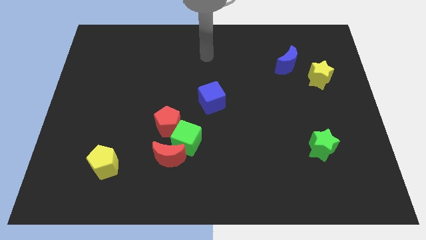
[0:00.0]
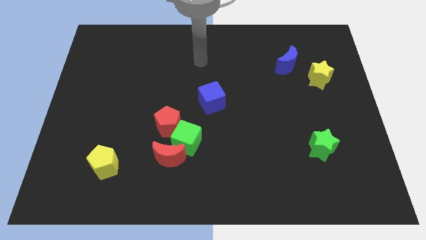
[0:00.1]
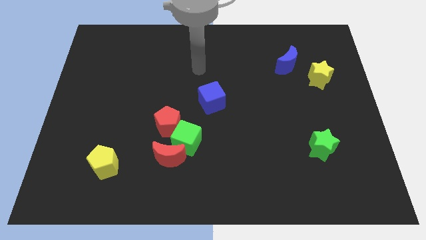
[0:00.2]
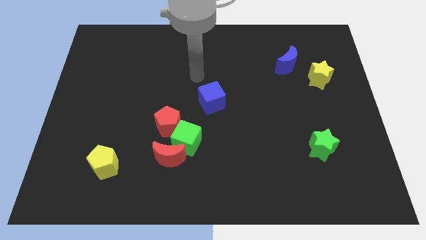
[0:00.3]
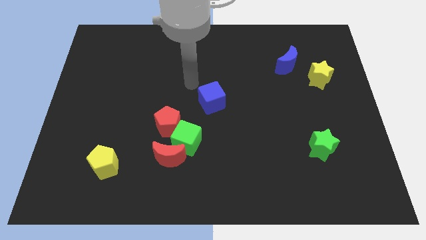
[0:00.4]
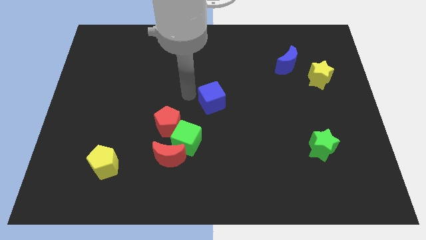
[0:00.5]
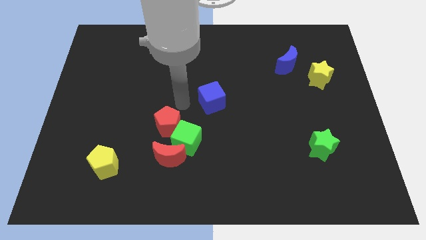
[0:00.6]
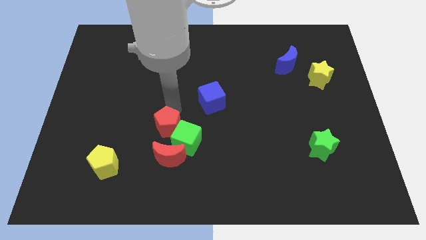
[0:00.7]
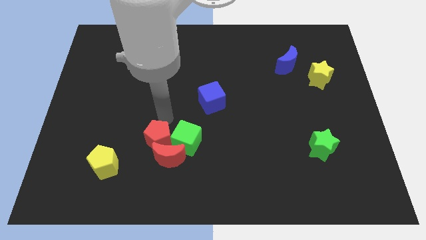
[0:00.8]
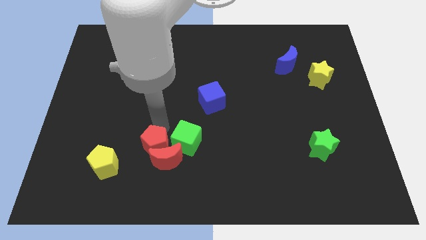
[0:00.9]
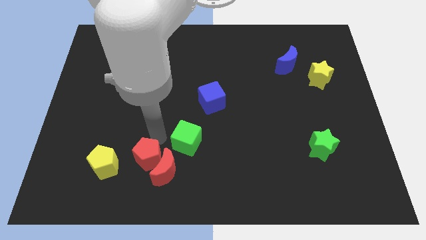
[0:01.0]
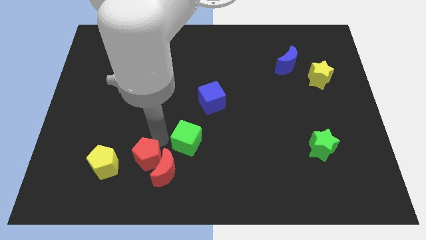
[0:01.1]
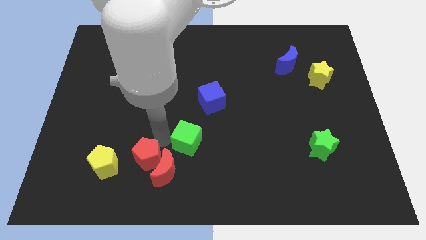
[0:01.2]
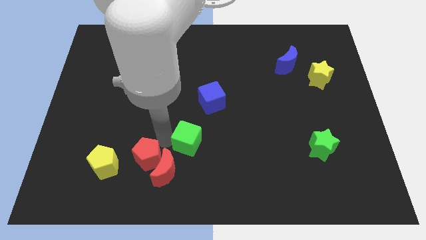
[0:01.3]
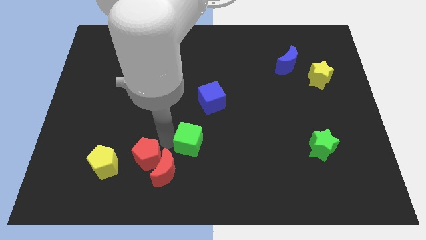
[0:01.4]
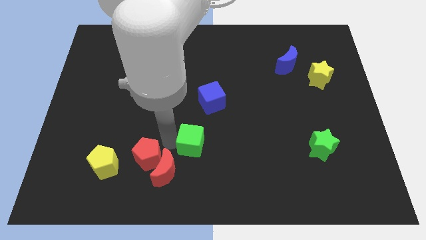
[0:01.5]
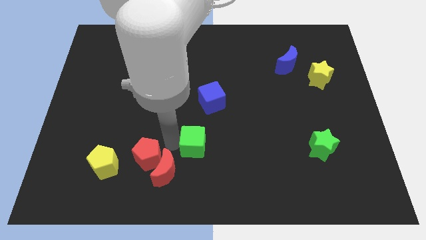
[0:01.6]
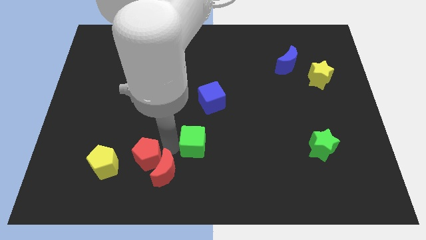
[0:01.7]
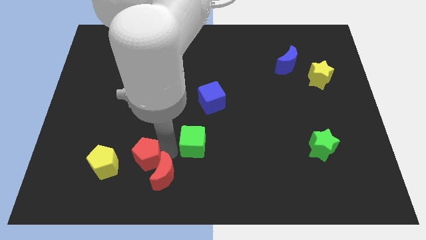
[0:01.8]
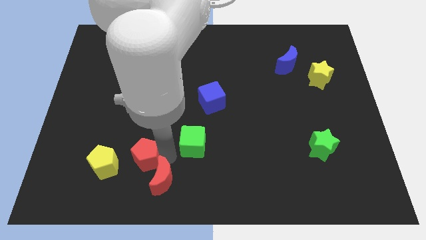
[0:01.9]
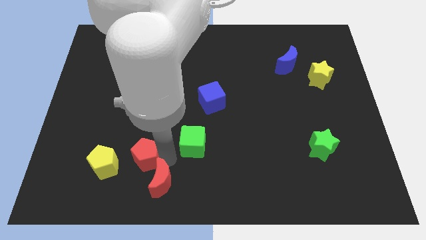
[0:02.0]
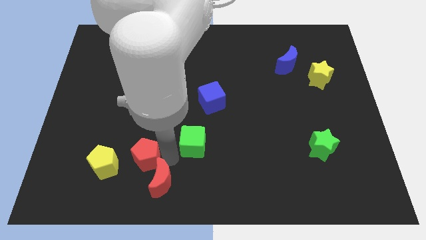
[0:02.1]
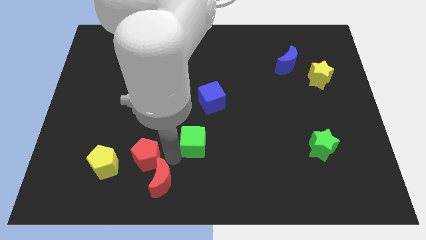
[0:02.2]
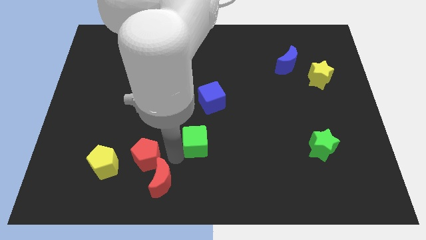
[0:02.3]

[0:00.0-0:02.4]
move the green cube away from the red moon and red pentagon

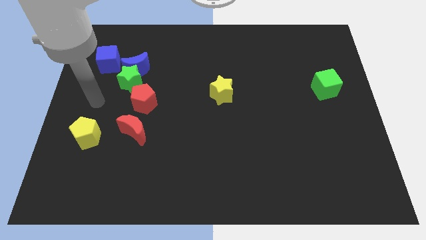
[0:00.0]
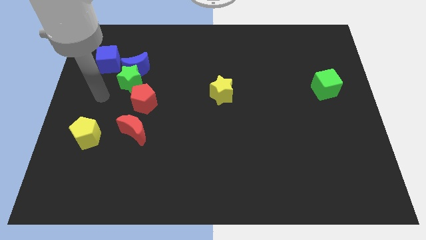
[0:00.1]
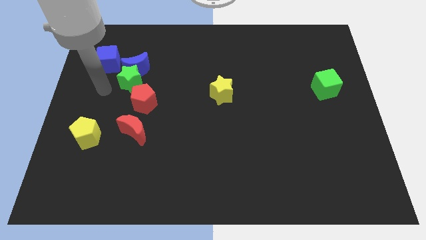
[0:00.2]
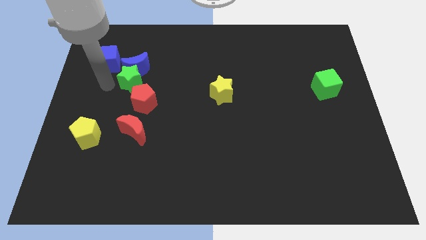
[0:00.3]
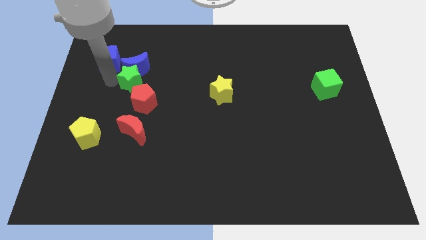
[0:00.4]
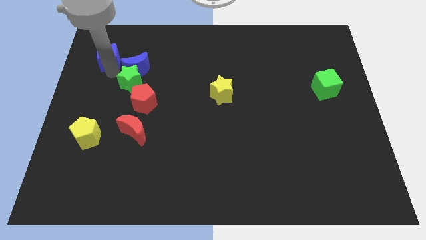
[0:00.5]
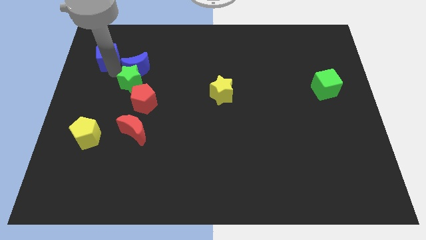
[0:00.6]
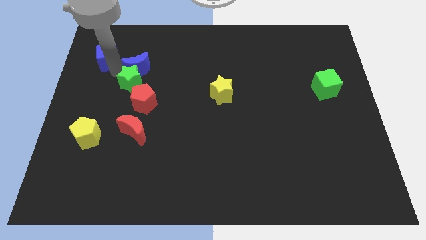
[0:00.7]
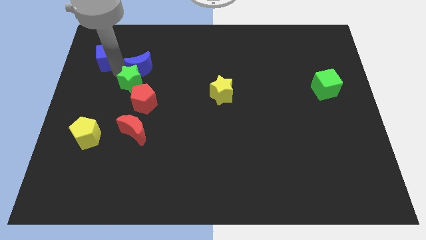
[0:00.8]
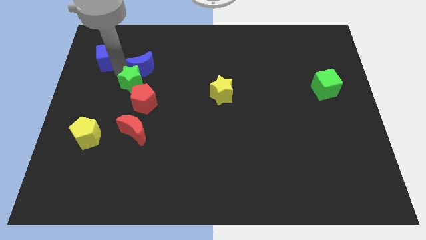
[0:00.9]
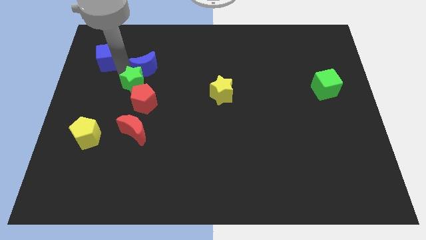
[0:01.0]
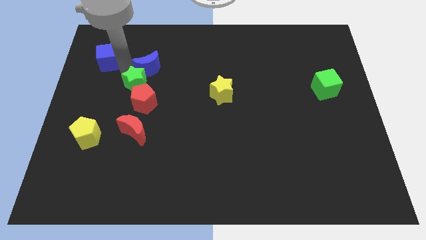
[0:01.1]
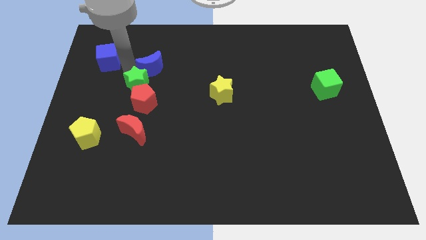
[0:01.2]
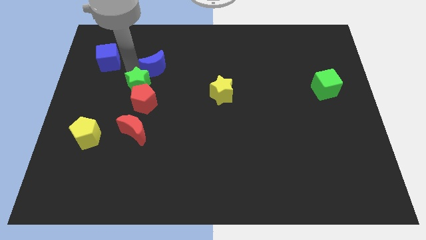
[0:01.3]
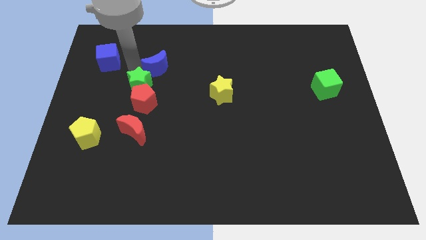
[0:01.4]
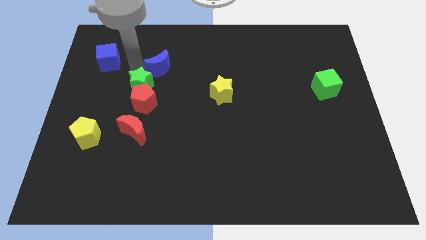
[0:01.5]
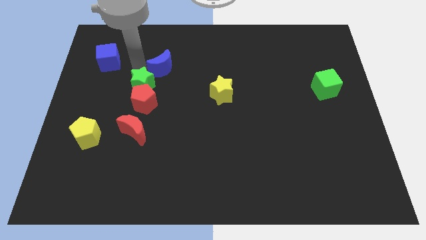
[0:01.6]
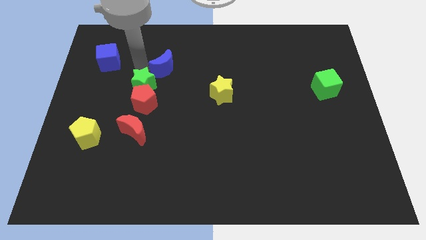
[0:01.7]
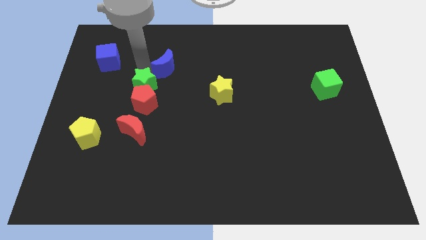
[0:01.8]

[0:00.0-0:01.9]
separate the blue moon from the green star and blue cube

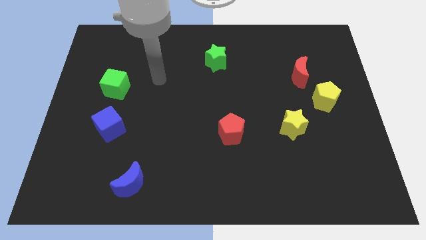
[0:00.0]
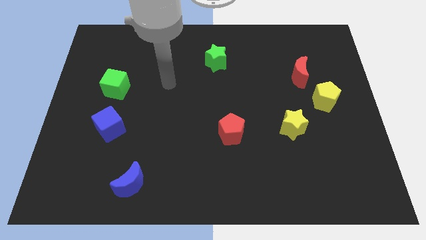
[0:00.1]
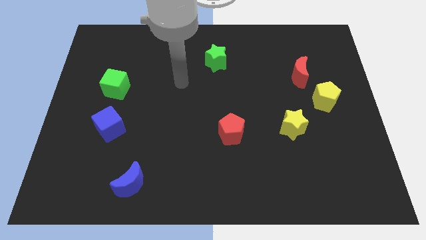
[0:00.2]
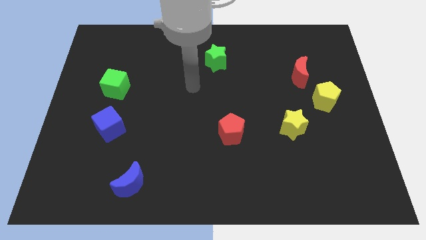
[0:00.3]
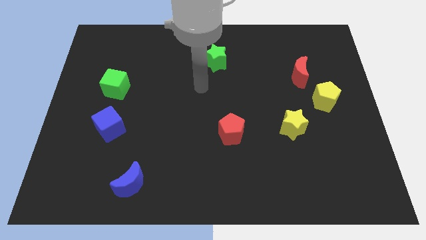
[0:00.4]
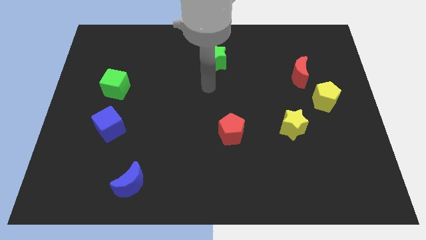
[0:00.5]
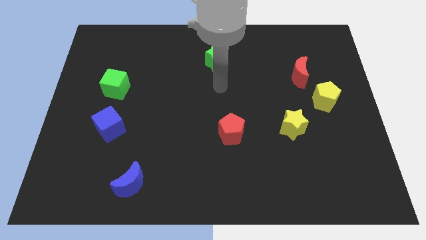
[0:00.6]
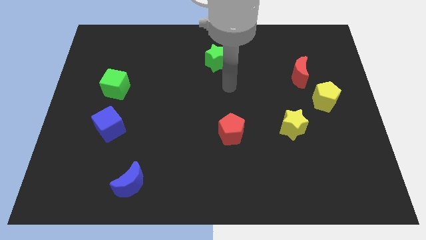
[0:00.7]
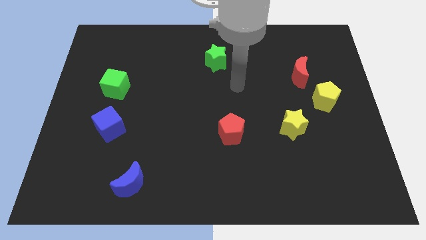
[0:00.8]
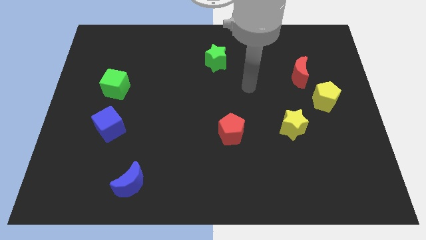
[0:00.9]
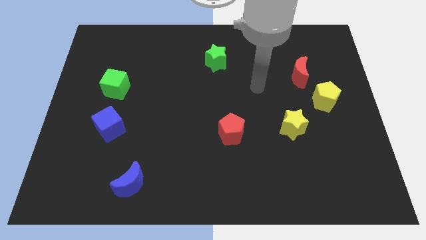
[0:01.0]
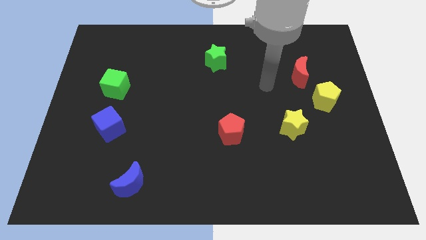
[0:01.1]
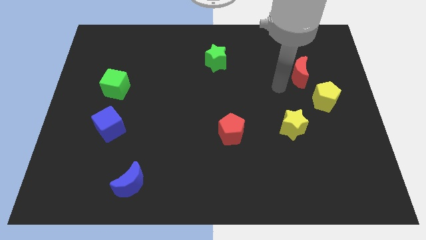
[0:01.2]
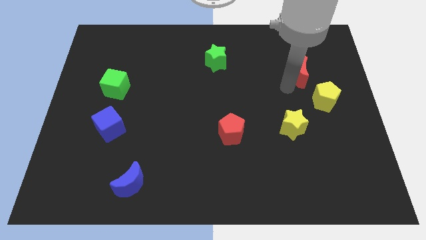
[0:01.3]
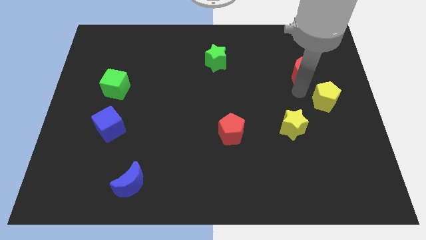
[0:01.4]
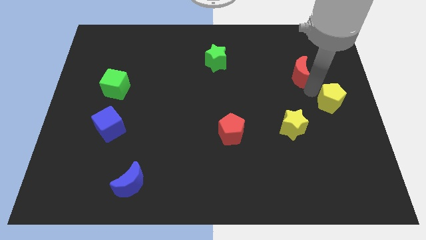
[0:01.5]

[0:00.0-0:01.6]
separate the red moon from the yellow pentagon

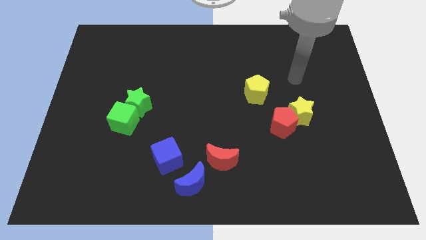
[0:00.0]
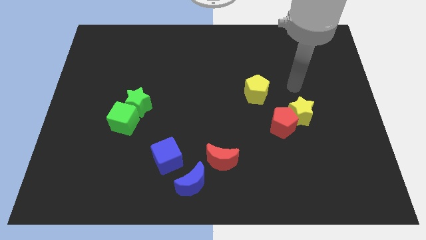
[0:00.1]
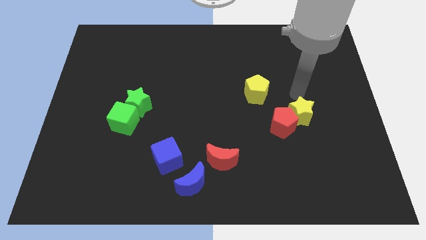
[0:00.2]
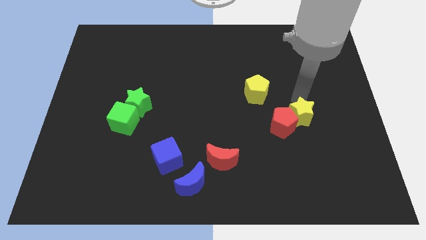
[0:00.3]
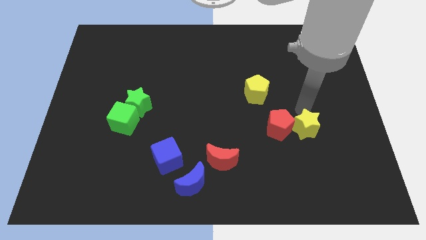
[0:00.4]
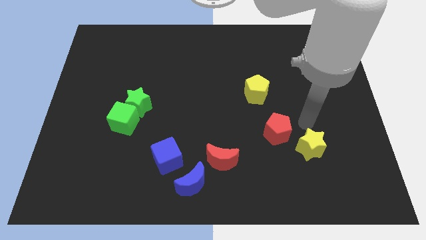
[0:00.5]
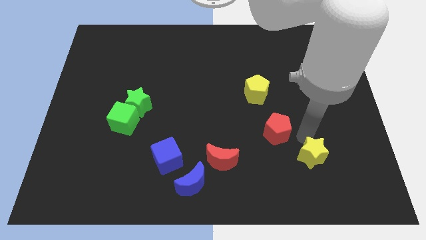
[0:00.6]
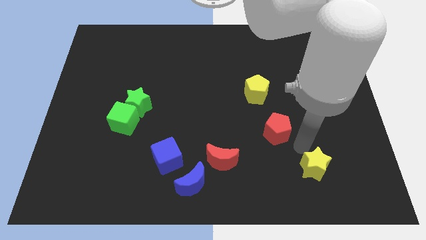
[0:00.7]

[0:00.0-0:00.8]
pull the red pentagon apart from the yellow star

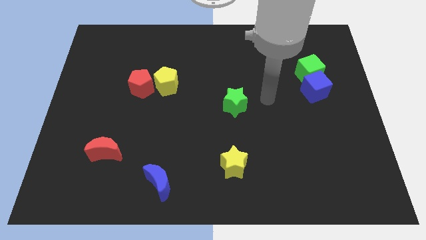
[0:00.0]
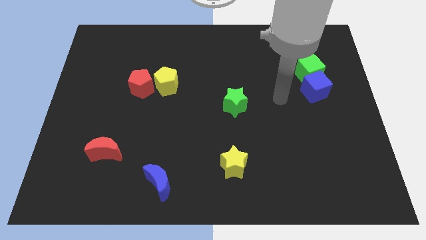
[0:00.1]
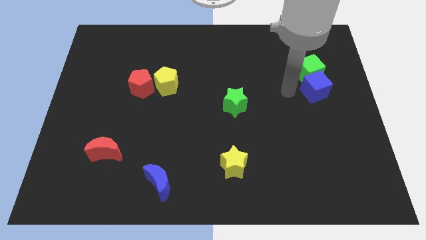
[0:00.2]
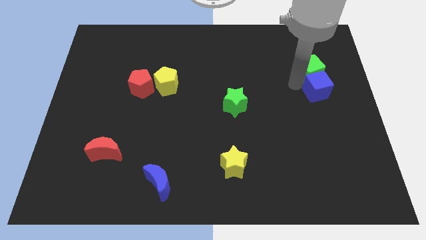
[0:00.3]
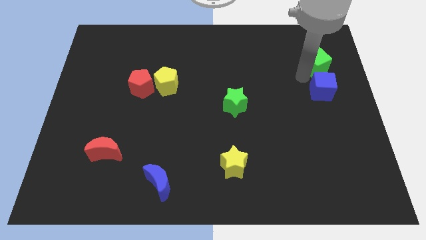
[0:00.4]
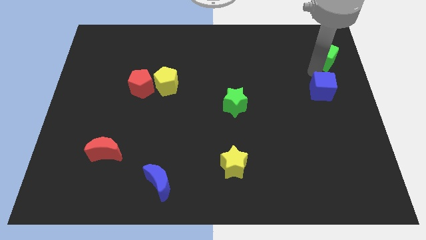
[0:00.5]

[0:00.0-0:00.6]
separate the blue cube from the green cube

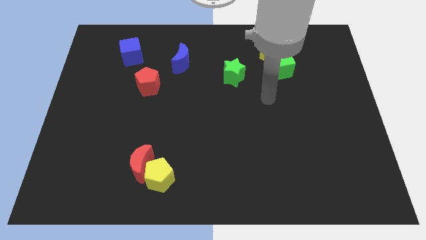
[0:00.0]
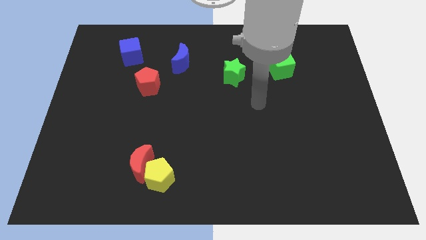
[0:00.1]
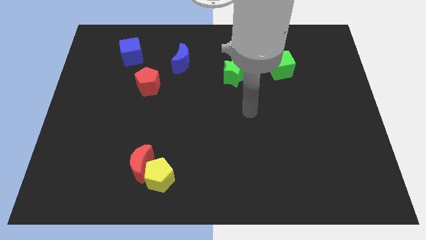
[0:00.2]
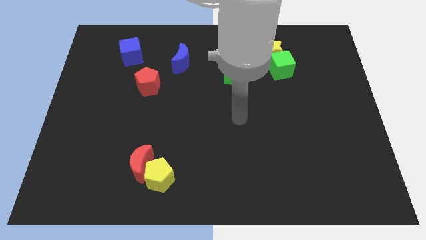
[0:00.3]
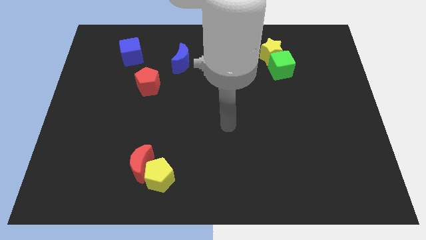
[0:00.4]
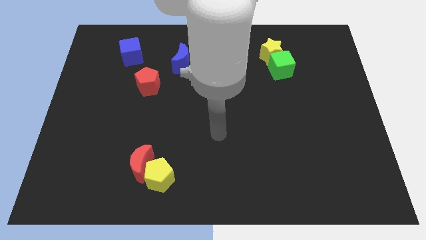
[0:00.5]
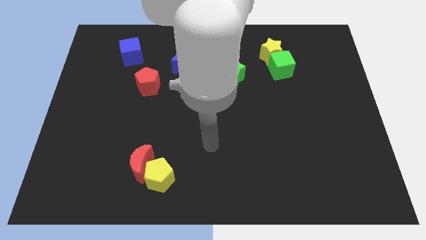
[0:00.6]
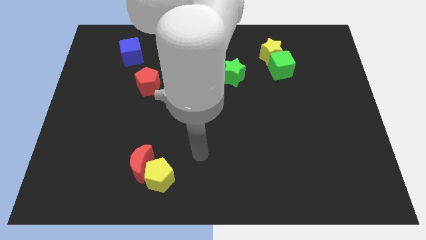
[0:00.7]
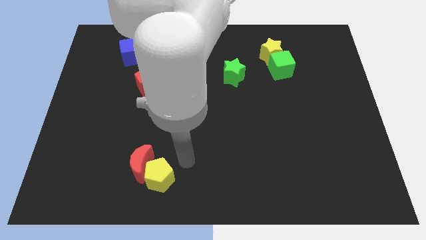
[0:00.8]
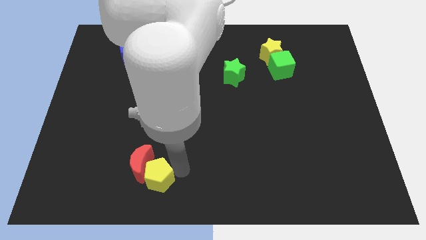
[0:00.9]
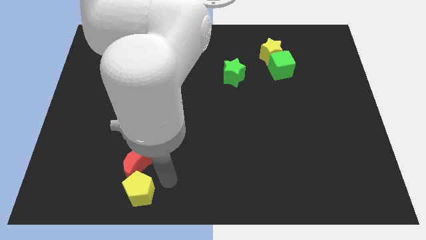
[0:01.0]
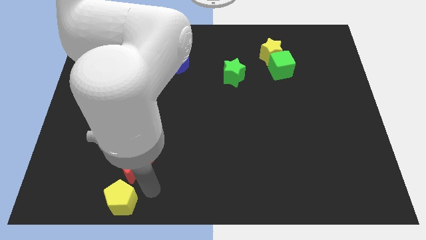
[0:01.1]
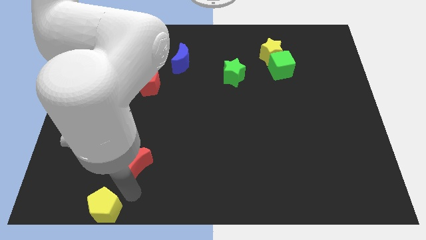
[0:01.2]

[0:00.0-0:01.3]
move the red moon away from the yellow pentagon

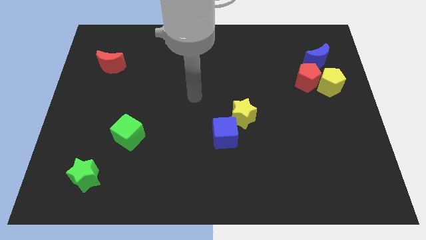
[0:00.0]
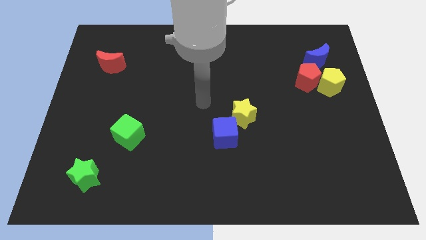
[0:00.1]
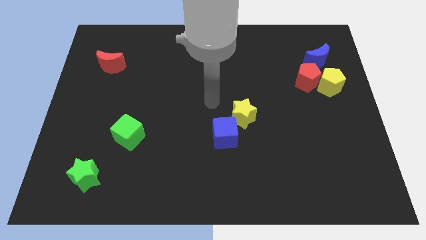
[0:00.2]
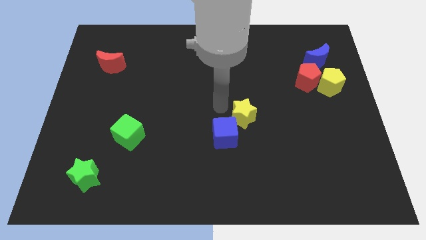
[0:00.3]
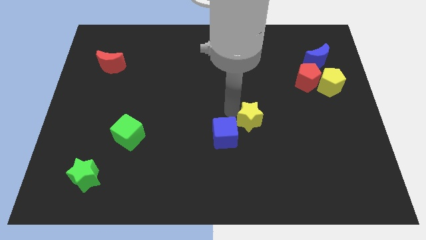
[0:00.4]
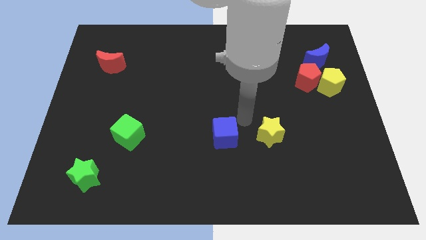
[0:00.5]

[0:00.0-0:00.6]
separate the blue cube from the yellow star
